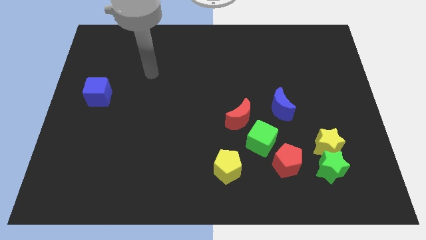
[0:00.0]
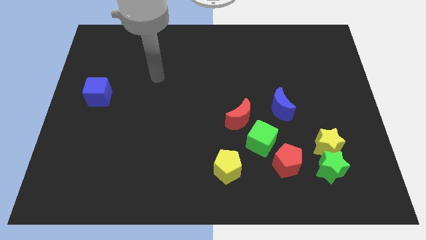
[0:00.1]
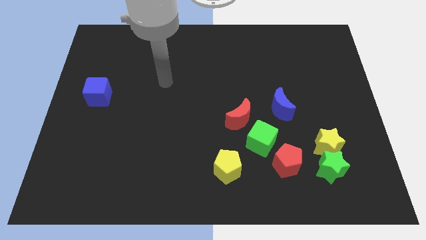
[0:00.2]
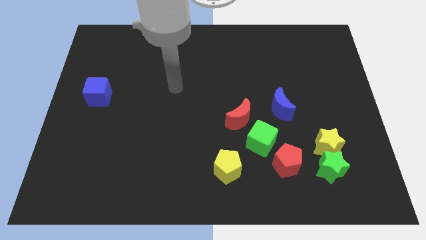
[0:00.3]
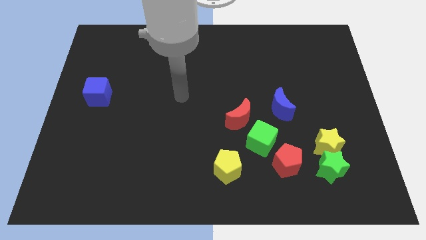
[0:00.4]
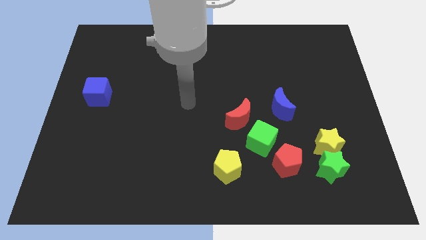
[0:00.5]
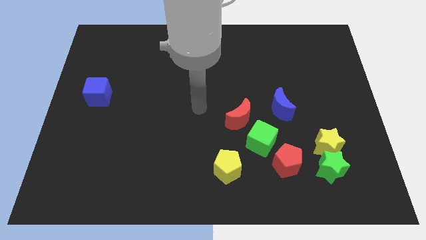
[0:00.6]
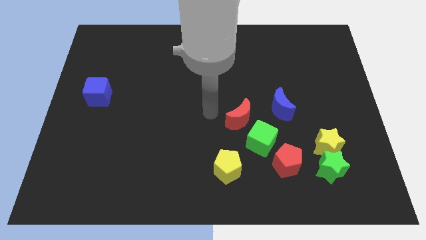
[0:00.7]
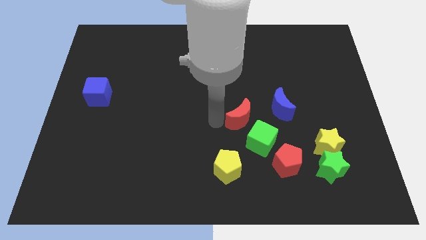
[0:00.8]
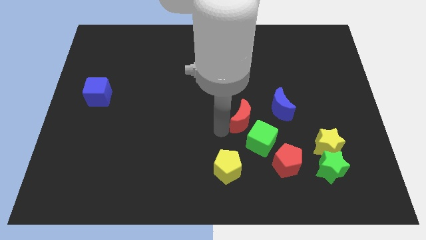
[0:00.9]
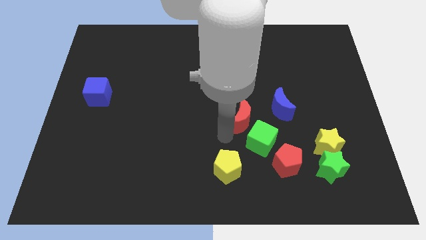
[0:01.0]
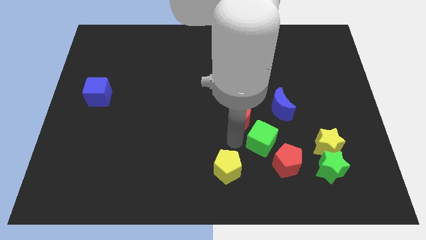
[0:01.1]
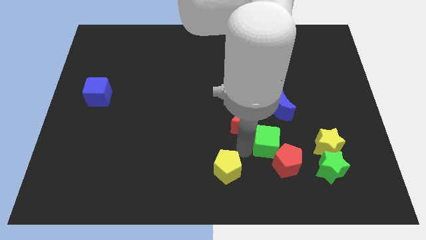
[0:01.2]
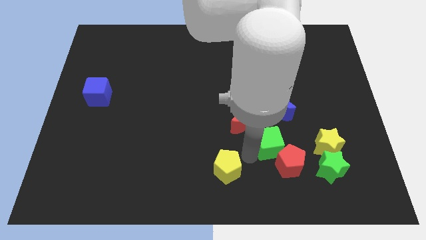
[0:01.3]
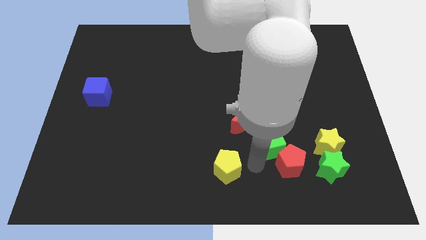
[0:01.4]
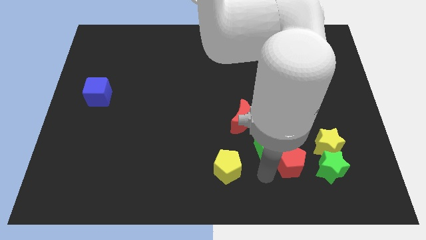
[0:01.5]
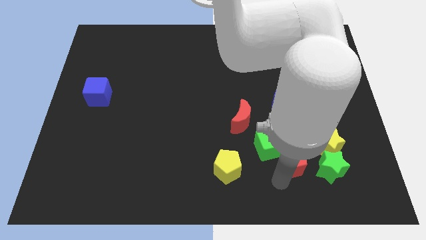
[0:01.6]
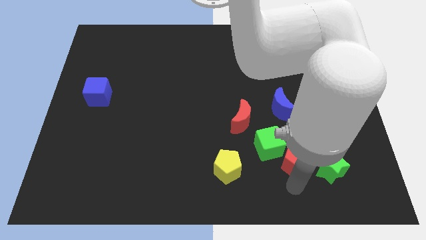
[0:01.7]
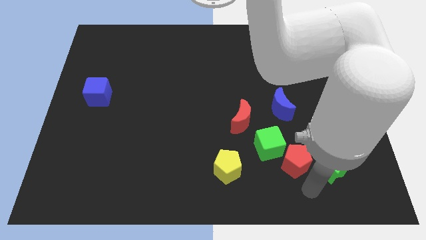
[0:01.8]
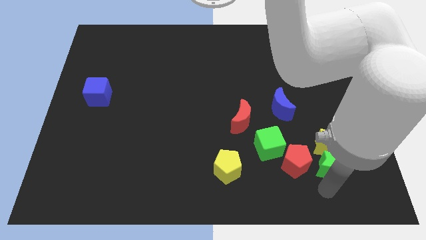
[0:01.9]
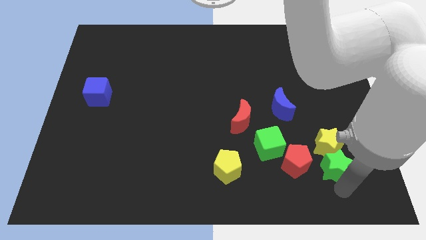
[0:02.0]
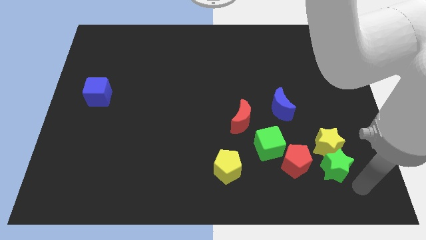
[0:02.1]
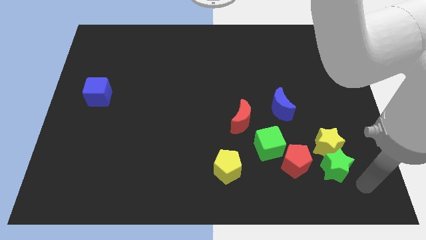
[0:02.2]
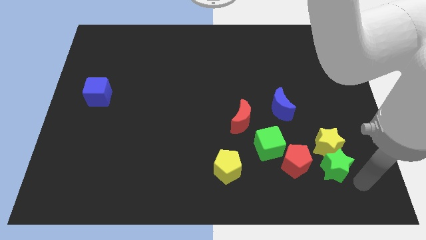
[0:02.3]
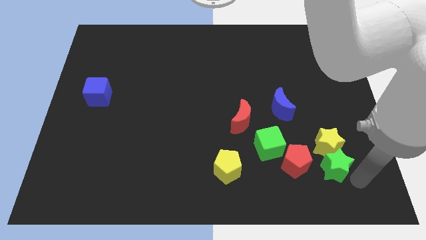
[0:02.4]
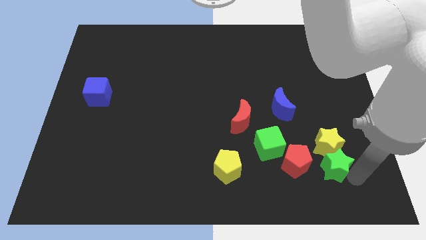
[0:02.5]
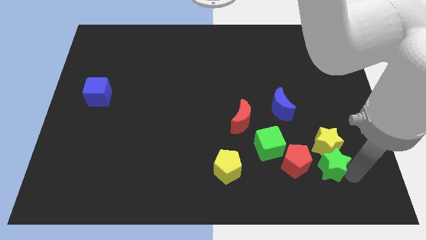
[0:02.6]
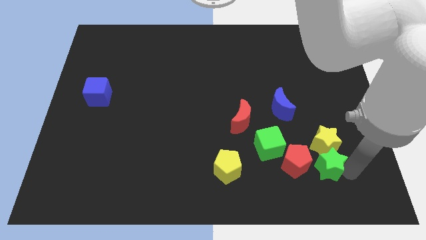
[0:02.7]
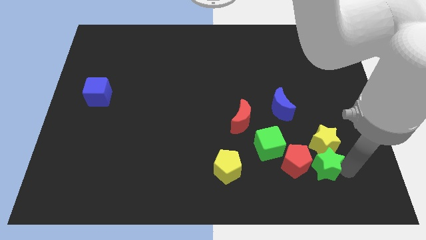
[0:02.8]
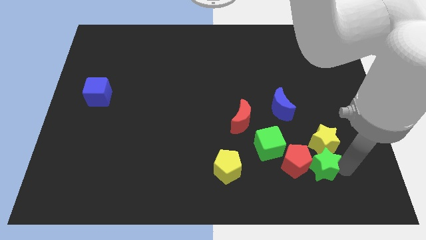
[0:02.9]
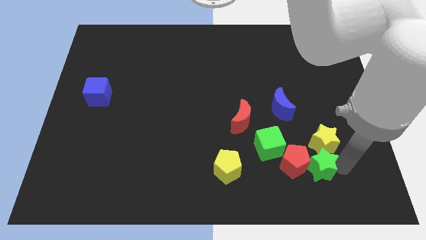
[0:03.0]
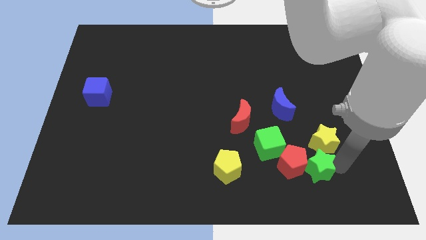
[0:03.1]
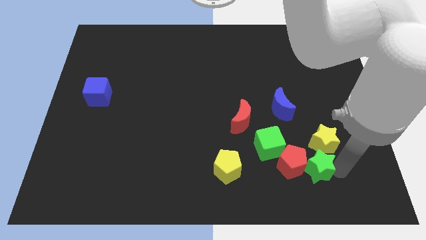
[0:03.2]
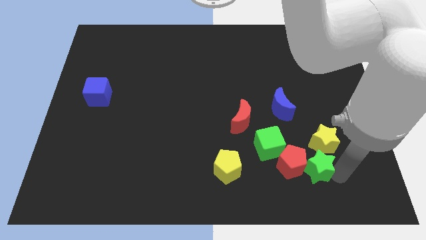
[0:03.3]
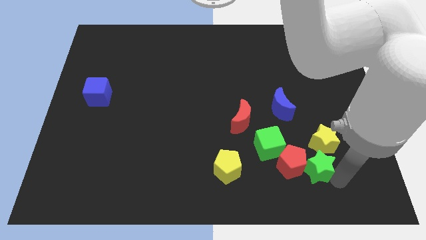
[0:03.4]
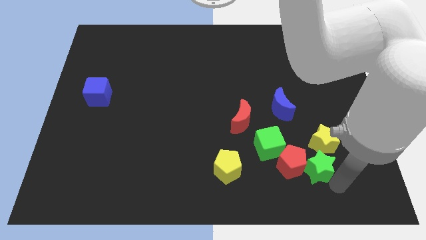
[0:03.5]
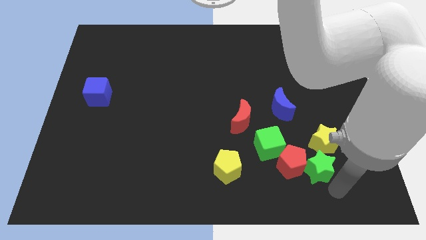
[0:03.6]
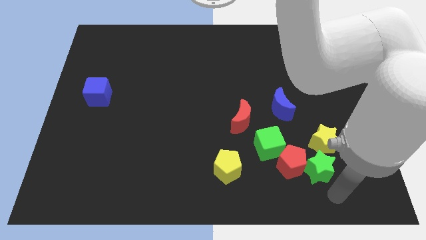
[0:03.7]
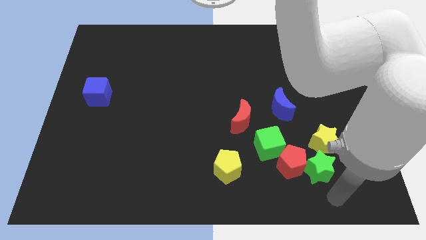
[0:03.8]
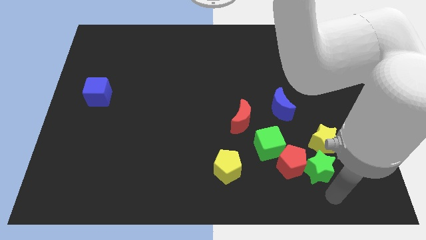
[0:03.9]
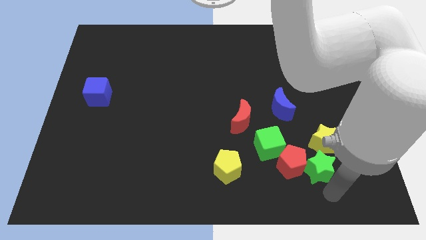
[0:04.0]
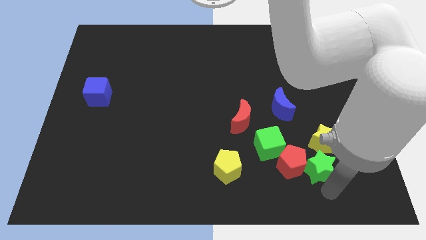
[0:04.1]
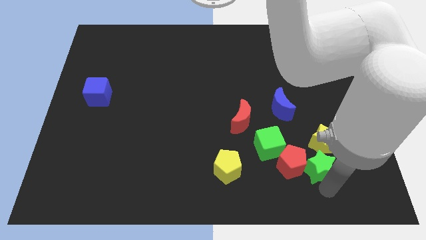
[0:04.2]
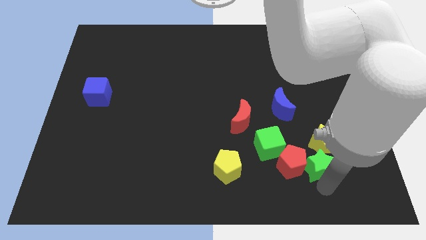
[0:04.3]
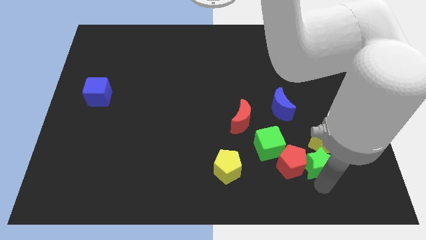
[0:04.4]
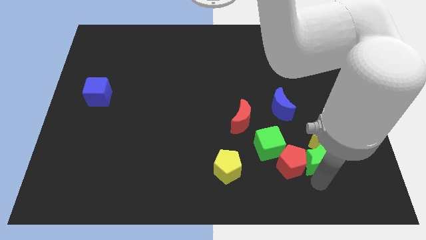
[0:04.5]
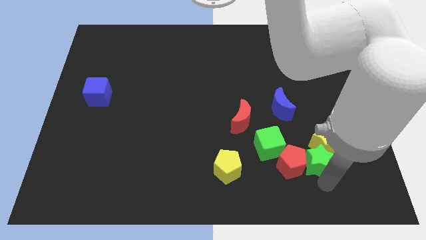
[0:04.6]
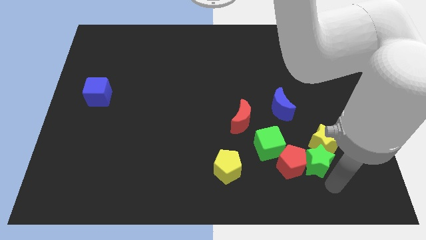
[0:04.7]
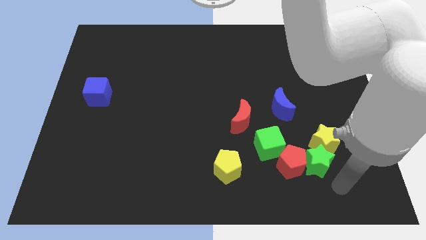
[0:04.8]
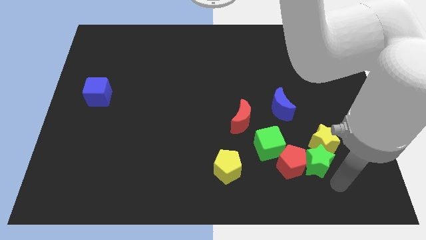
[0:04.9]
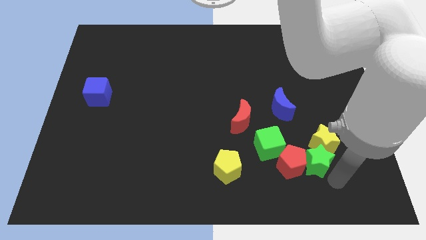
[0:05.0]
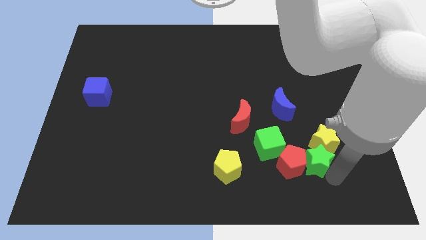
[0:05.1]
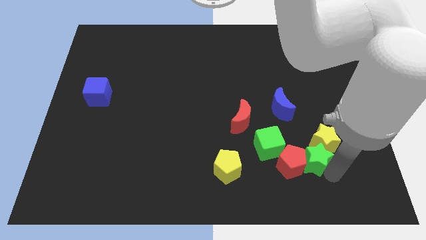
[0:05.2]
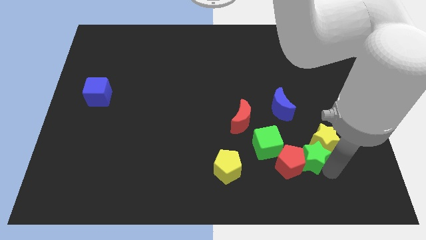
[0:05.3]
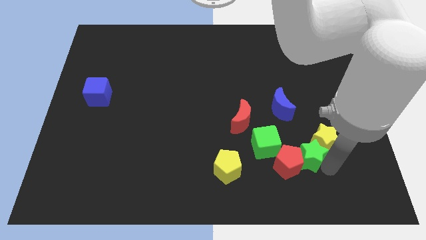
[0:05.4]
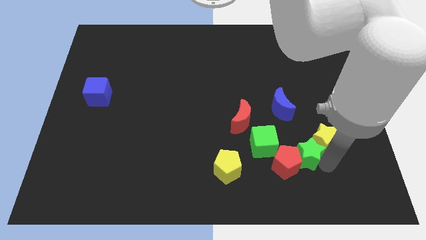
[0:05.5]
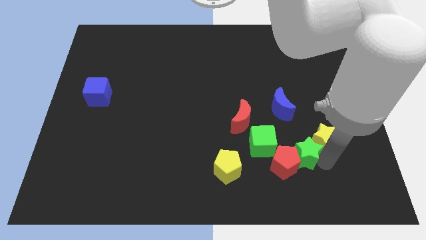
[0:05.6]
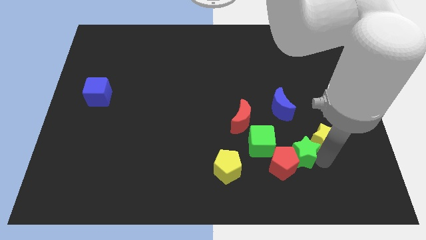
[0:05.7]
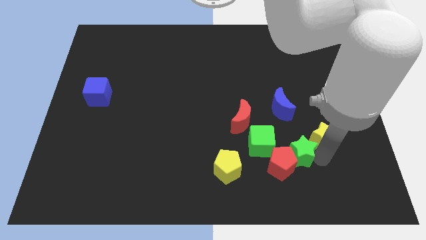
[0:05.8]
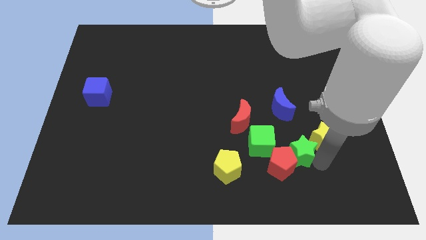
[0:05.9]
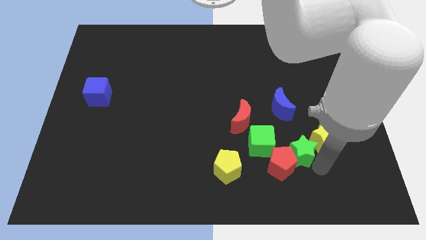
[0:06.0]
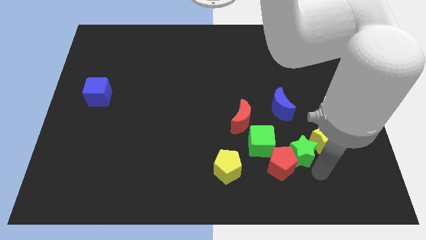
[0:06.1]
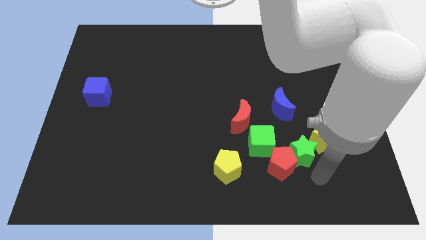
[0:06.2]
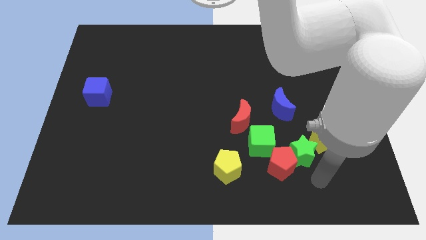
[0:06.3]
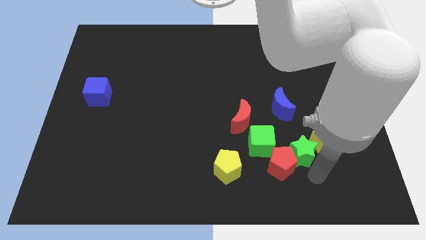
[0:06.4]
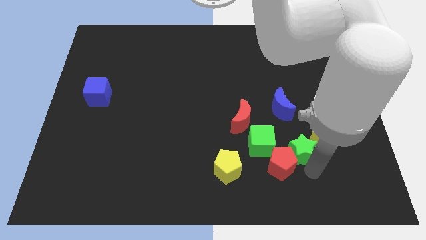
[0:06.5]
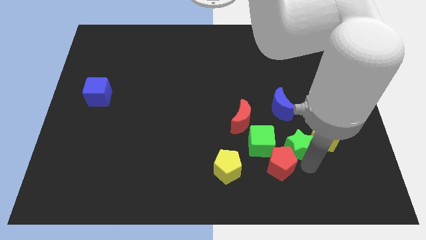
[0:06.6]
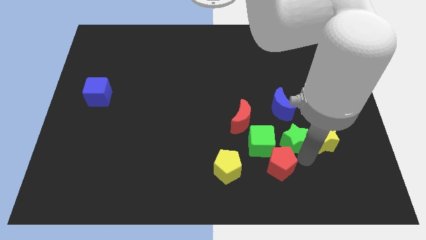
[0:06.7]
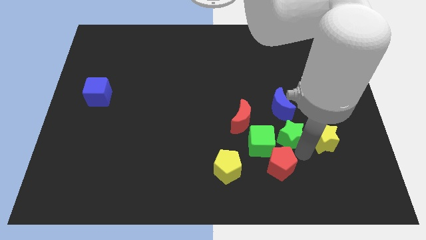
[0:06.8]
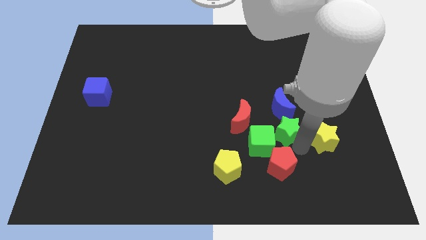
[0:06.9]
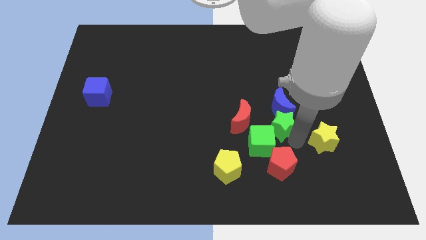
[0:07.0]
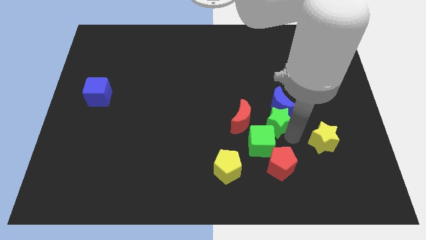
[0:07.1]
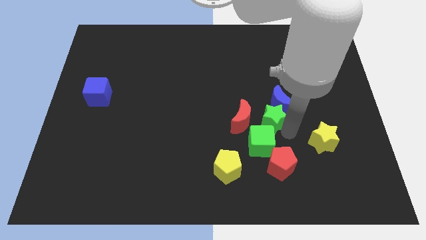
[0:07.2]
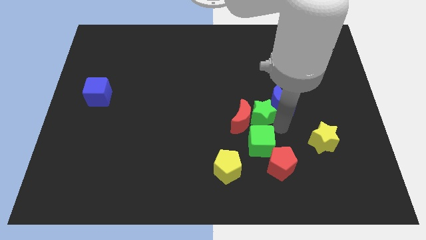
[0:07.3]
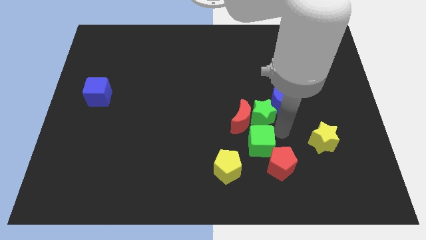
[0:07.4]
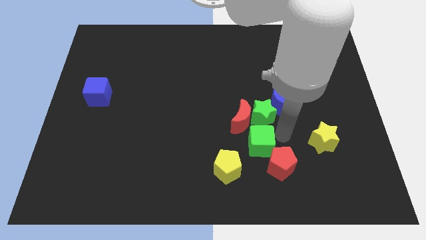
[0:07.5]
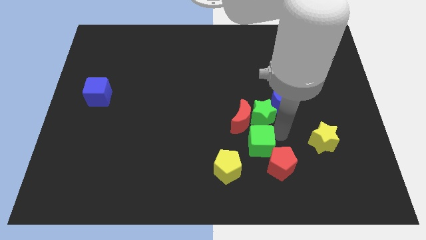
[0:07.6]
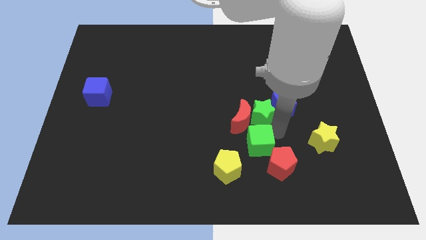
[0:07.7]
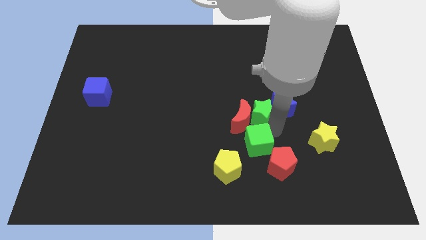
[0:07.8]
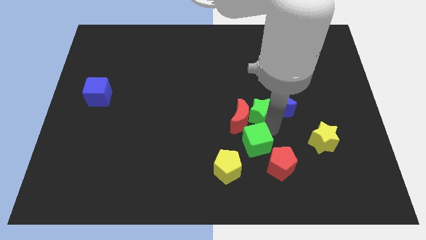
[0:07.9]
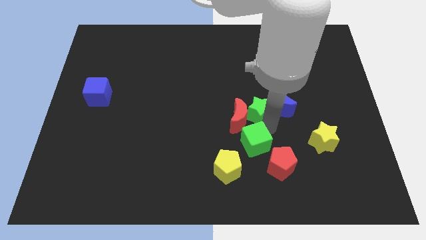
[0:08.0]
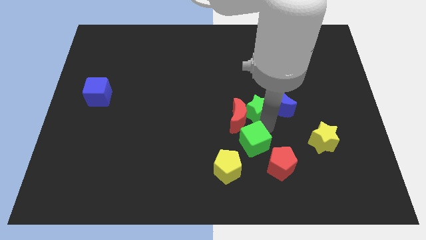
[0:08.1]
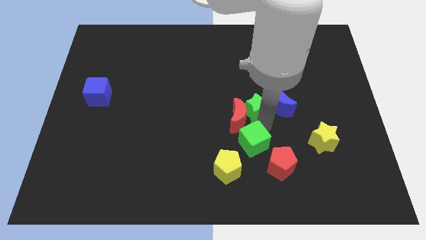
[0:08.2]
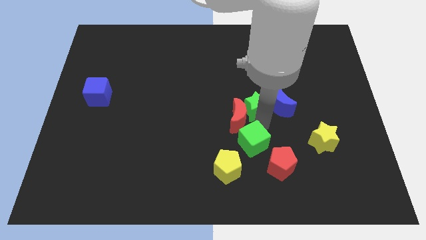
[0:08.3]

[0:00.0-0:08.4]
push the green star to the top side of the red moon
